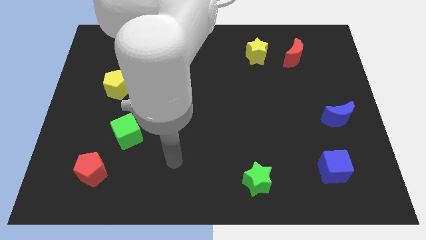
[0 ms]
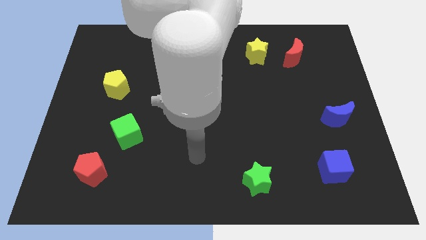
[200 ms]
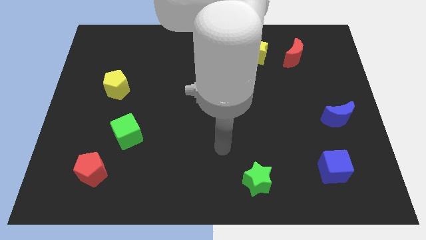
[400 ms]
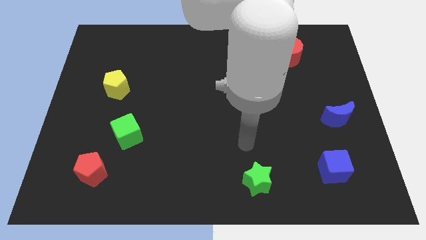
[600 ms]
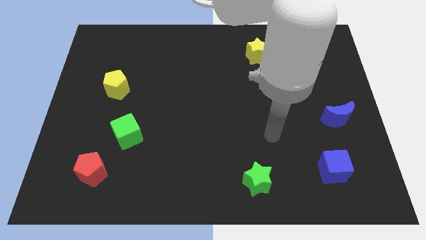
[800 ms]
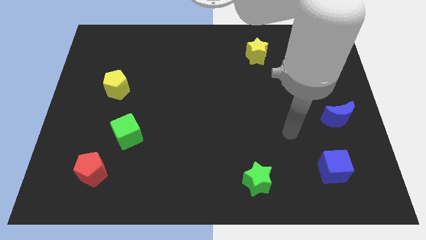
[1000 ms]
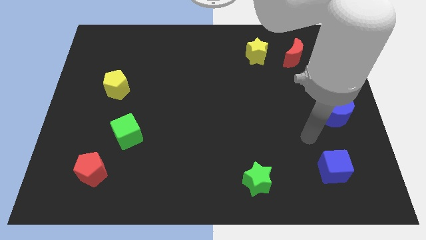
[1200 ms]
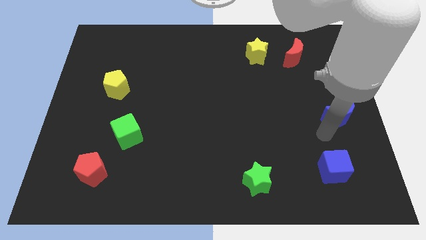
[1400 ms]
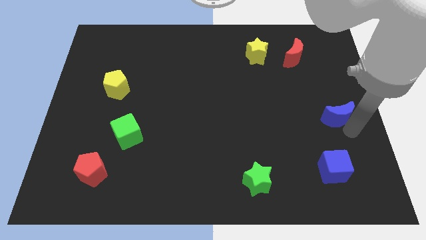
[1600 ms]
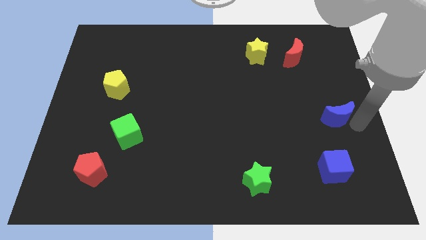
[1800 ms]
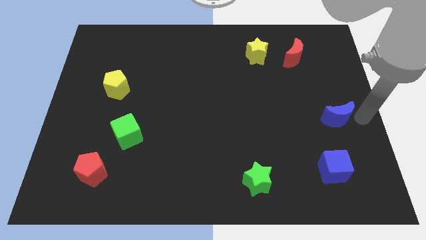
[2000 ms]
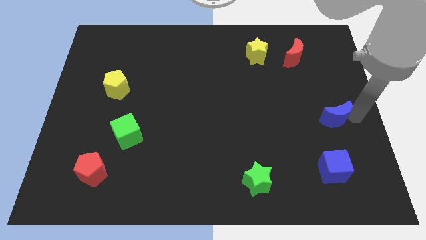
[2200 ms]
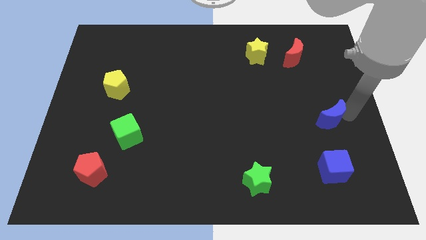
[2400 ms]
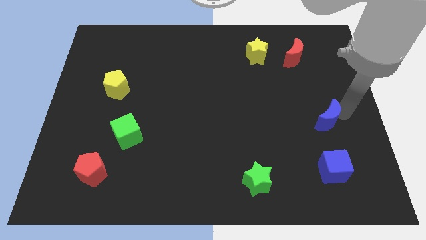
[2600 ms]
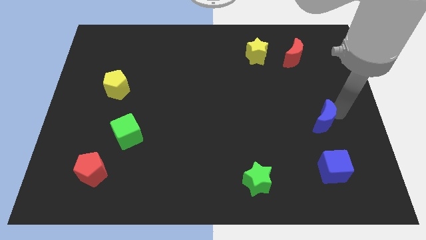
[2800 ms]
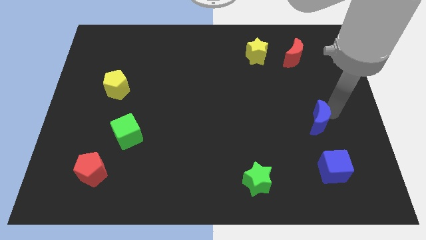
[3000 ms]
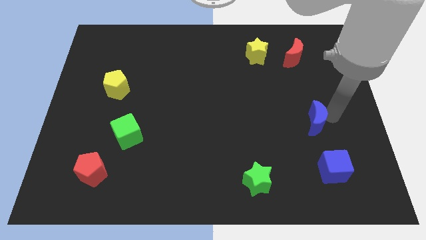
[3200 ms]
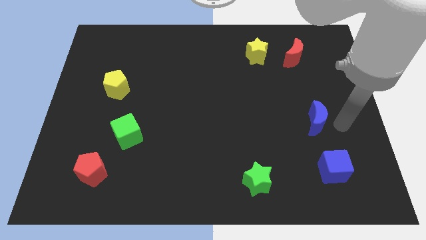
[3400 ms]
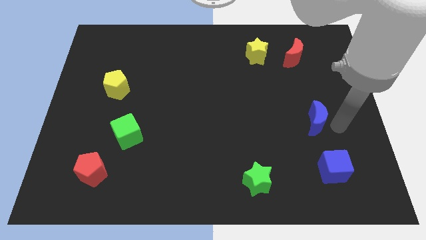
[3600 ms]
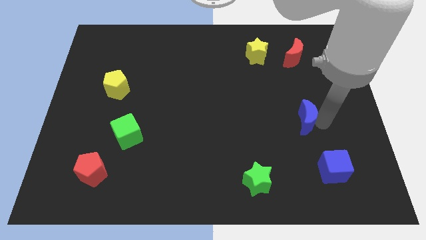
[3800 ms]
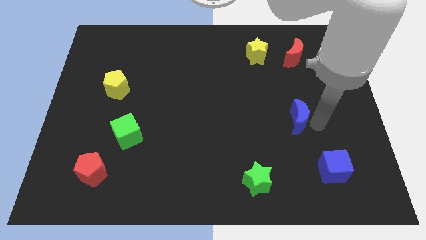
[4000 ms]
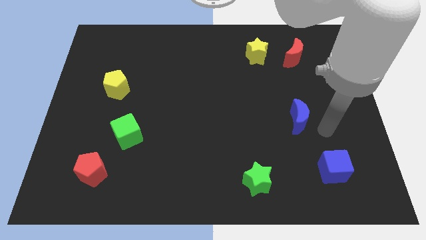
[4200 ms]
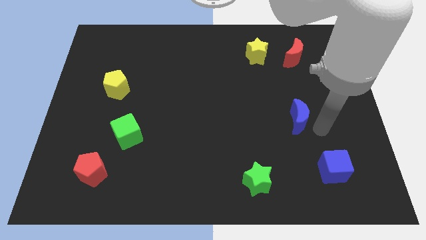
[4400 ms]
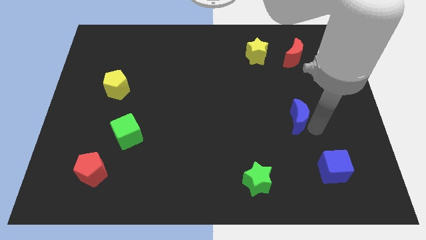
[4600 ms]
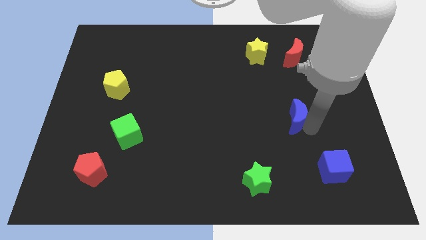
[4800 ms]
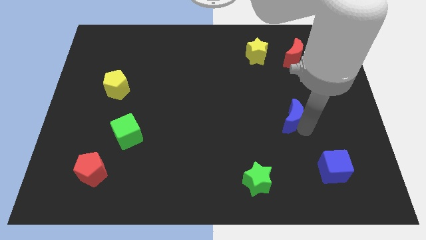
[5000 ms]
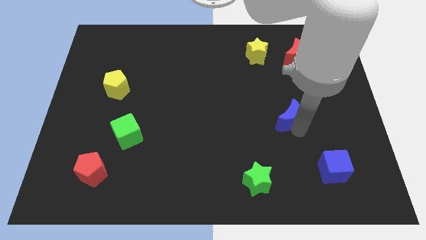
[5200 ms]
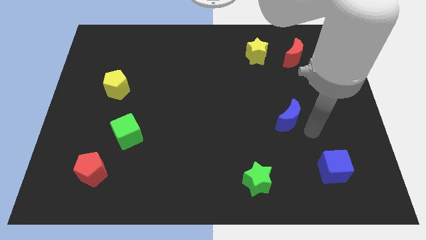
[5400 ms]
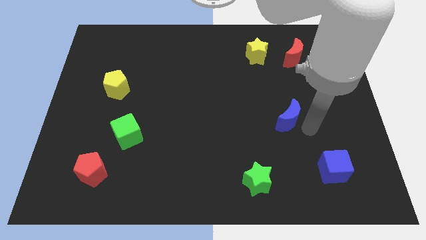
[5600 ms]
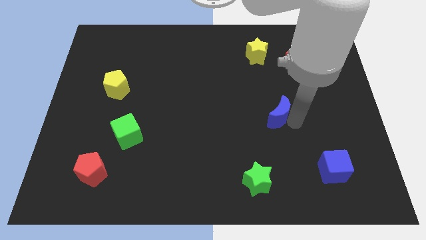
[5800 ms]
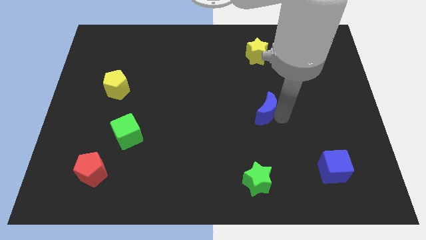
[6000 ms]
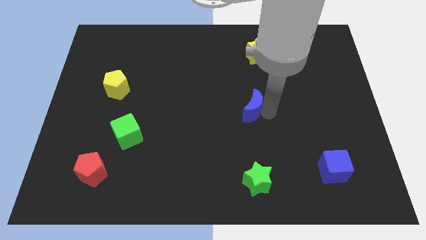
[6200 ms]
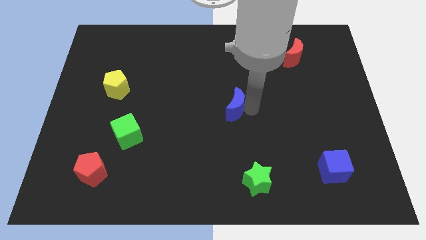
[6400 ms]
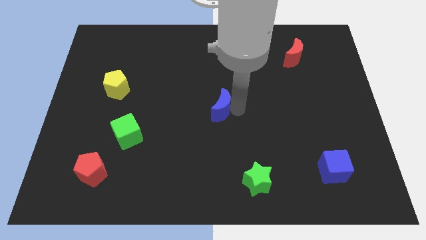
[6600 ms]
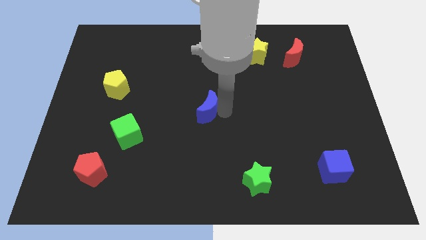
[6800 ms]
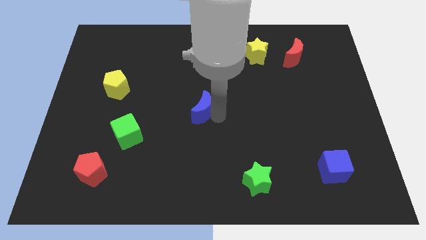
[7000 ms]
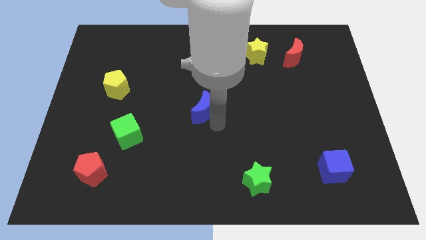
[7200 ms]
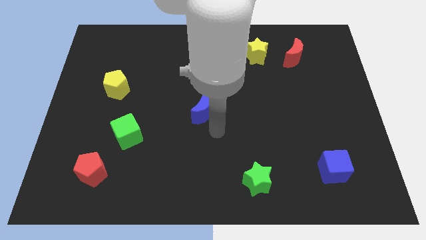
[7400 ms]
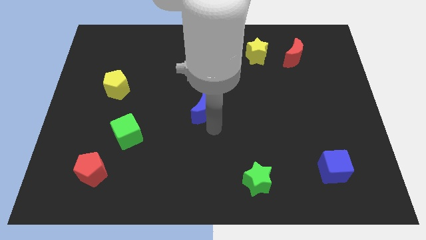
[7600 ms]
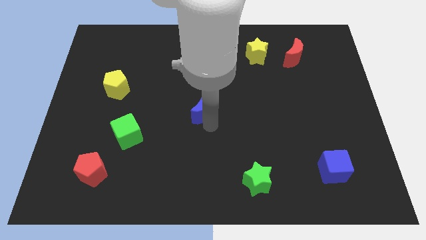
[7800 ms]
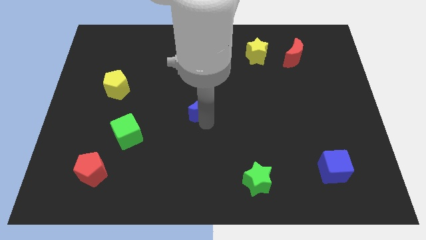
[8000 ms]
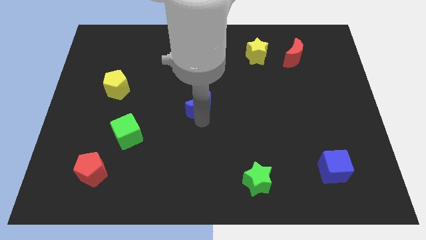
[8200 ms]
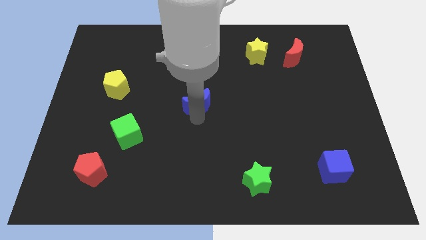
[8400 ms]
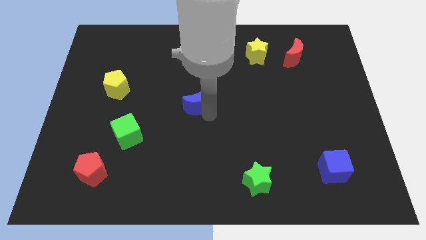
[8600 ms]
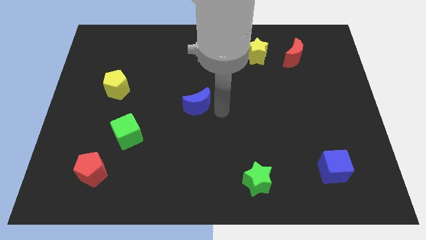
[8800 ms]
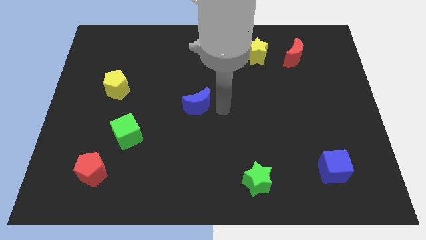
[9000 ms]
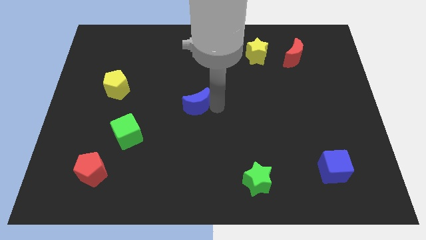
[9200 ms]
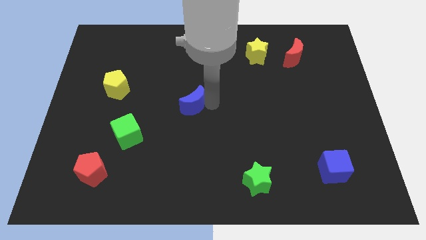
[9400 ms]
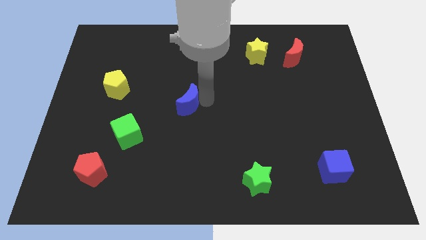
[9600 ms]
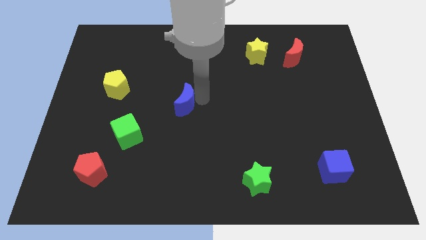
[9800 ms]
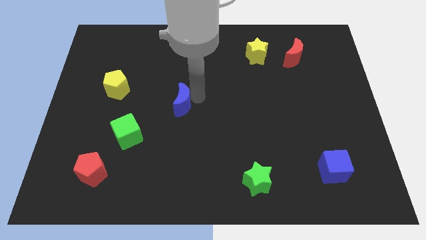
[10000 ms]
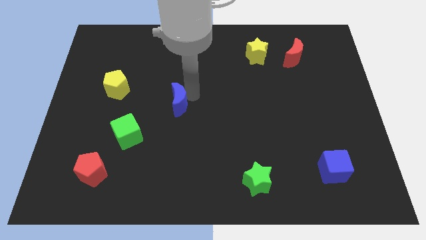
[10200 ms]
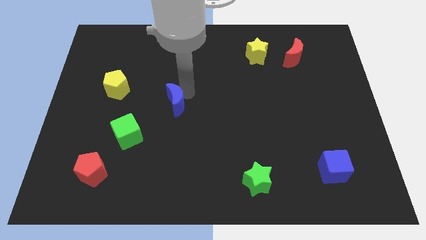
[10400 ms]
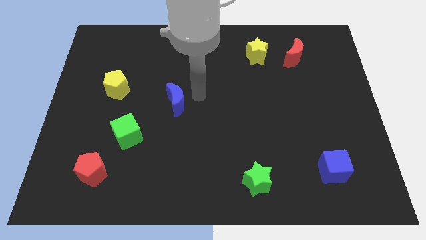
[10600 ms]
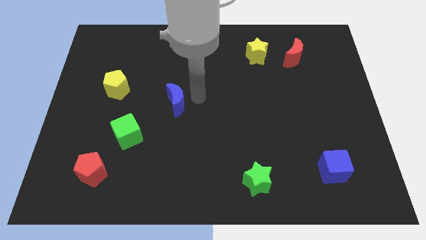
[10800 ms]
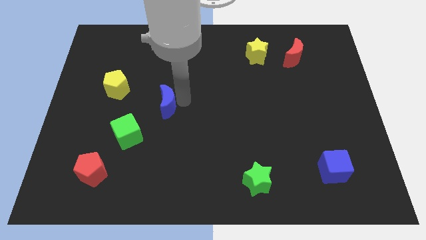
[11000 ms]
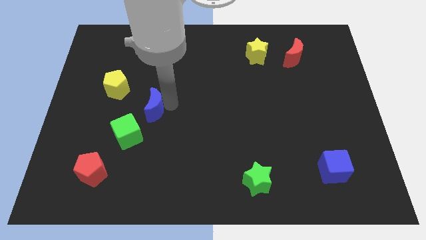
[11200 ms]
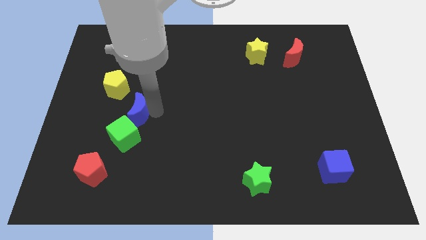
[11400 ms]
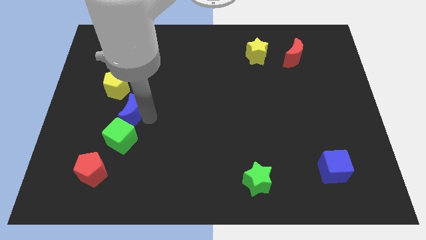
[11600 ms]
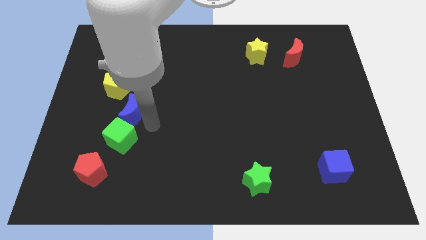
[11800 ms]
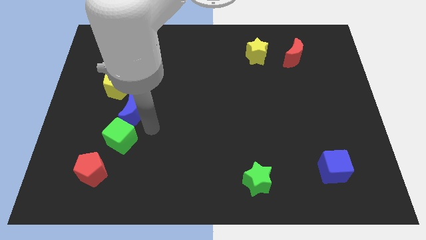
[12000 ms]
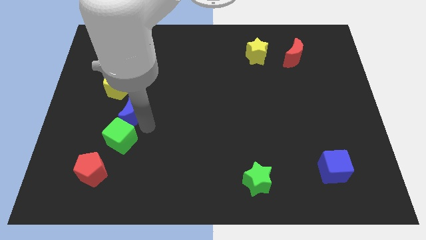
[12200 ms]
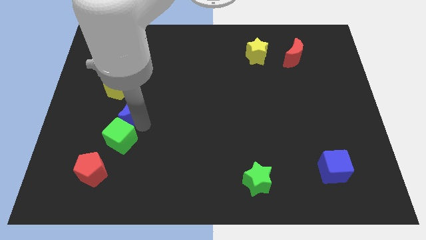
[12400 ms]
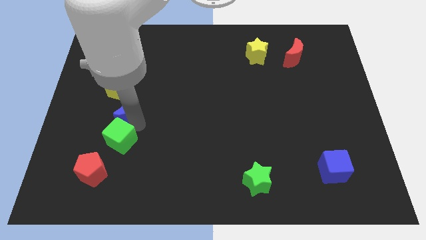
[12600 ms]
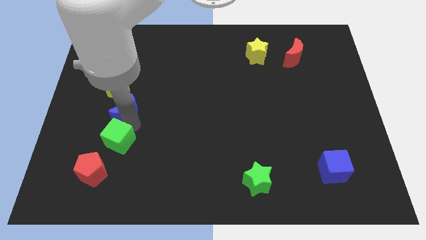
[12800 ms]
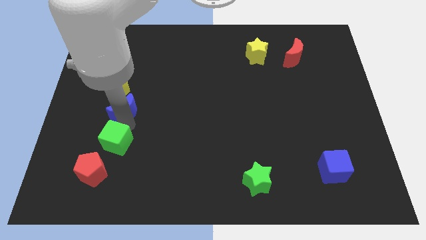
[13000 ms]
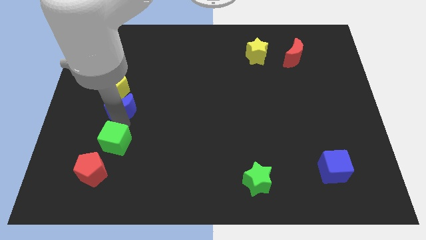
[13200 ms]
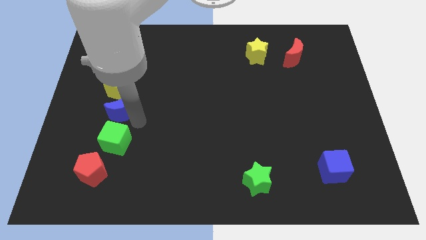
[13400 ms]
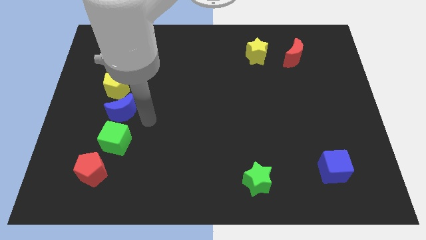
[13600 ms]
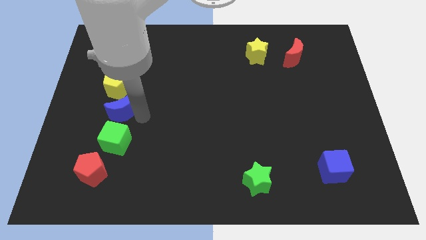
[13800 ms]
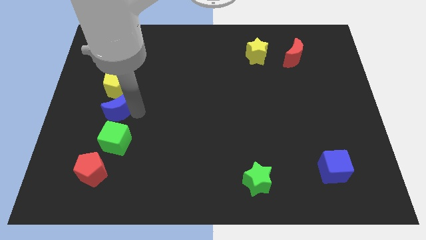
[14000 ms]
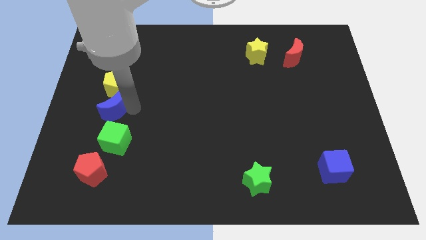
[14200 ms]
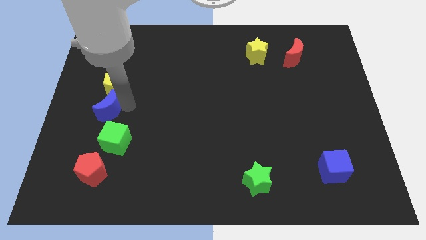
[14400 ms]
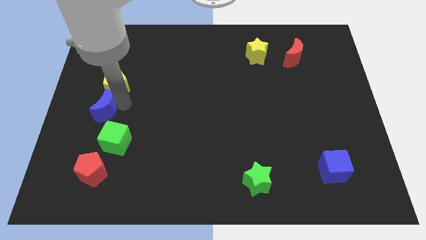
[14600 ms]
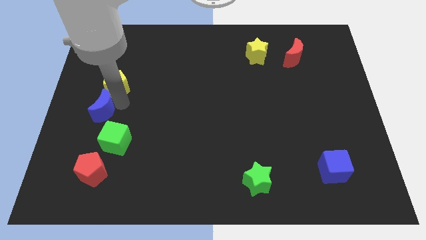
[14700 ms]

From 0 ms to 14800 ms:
push the blue moon to the left side
